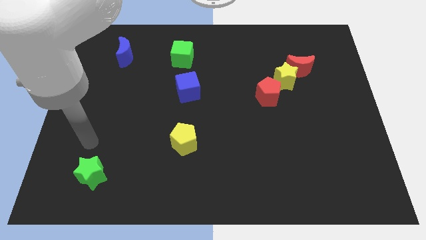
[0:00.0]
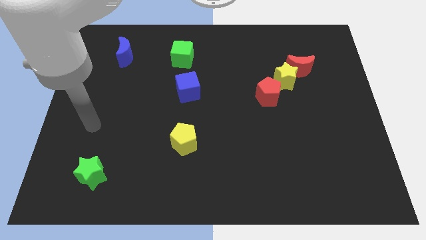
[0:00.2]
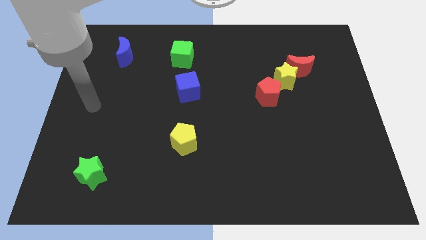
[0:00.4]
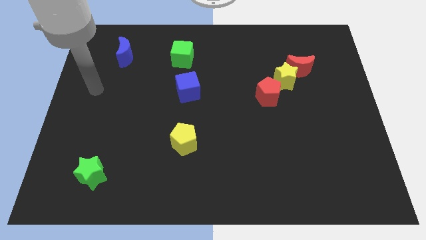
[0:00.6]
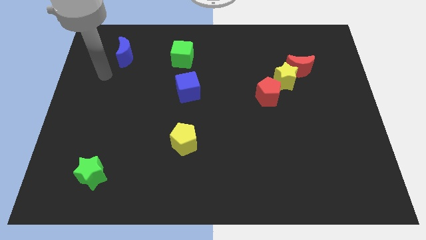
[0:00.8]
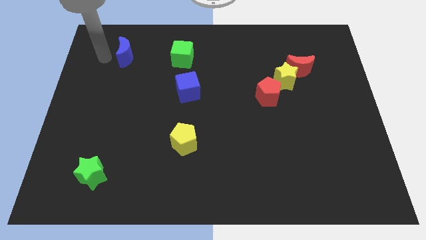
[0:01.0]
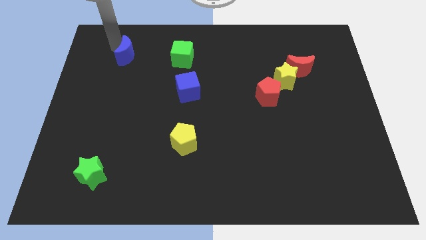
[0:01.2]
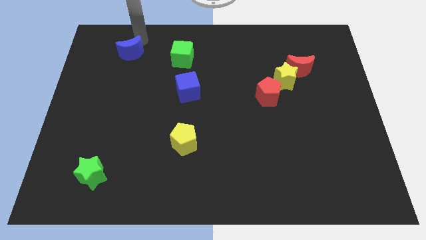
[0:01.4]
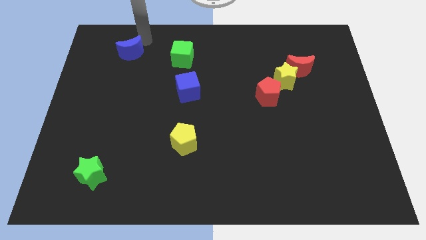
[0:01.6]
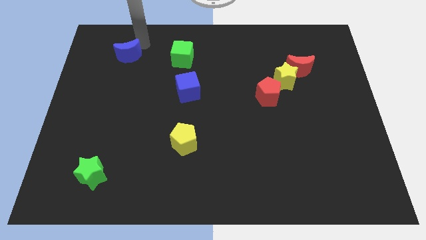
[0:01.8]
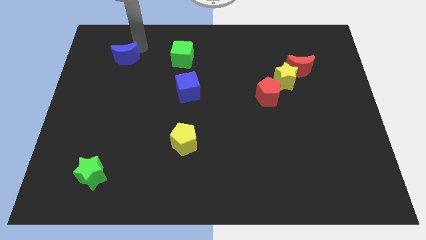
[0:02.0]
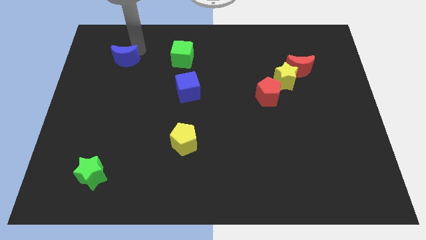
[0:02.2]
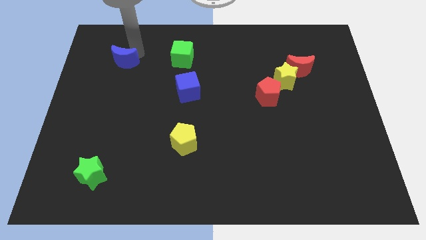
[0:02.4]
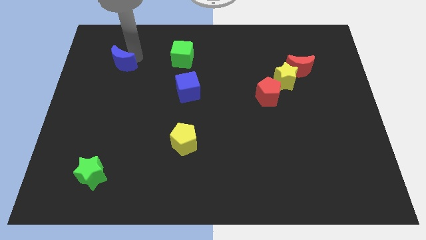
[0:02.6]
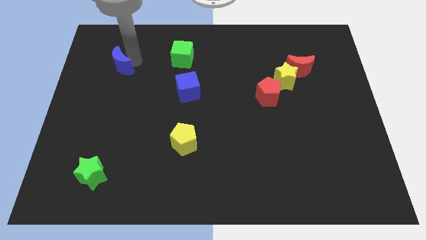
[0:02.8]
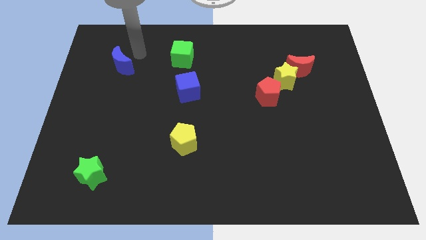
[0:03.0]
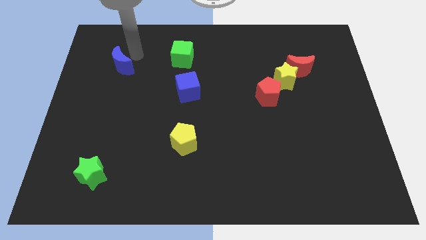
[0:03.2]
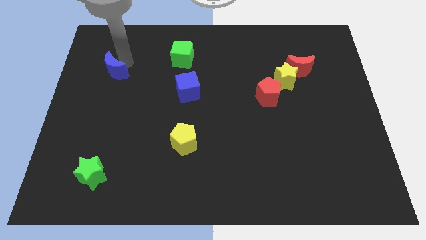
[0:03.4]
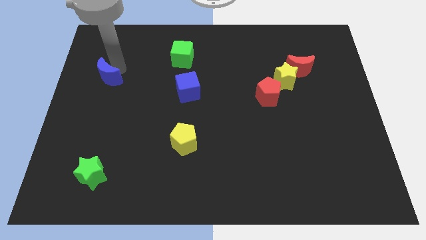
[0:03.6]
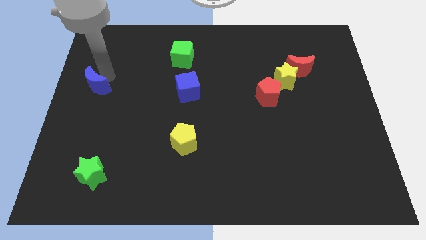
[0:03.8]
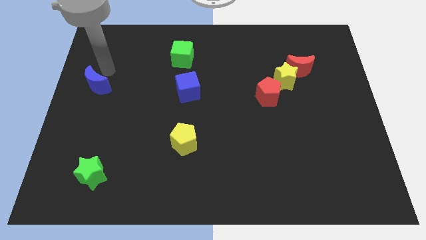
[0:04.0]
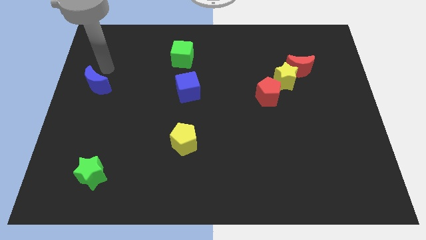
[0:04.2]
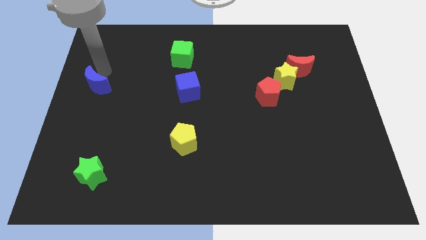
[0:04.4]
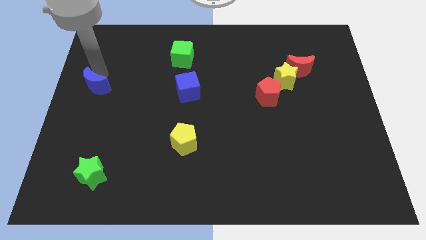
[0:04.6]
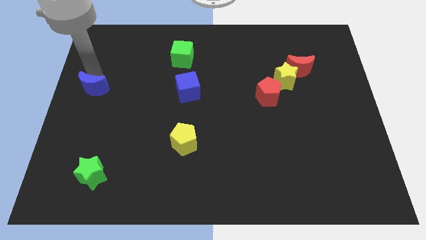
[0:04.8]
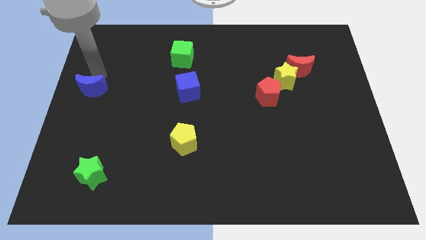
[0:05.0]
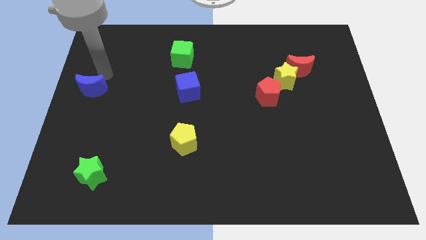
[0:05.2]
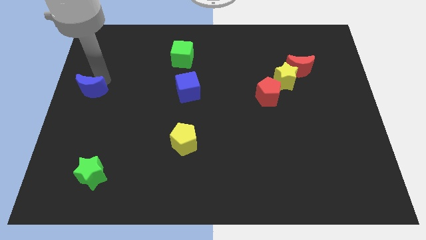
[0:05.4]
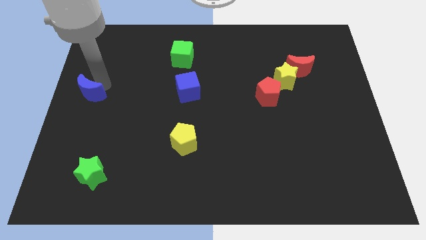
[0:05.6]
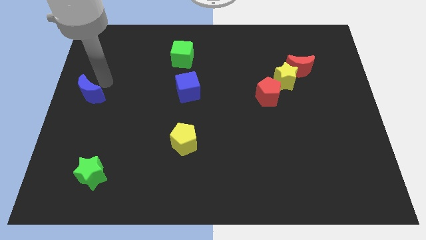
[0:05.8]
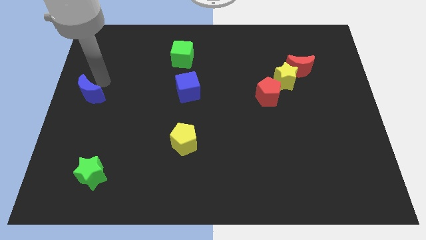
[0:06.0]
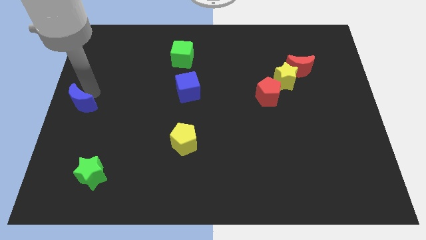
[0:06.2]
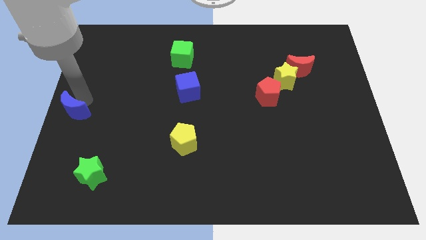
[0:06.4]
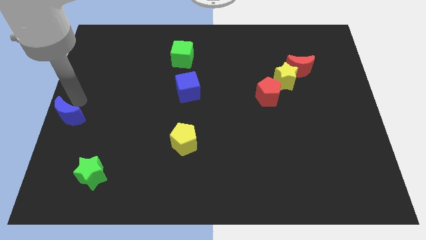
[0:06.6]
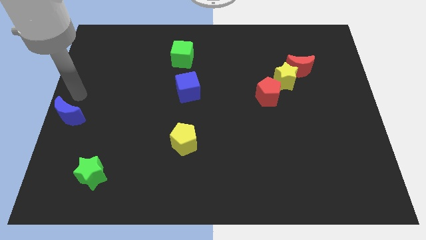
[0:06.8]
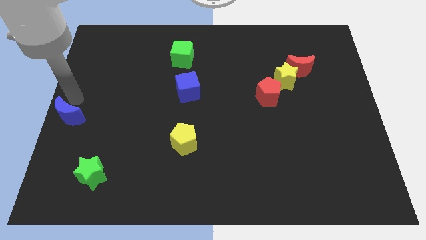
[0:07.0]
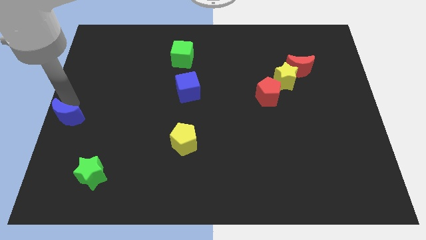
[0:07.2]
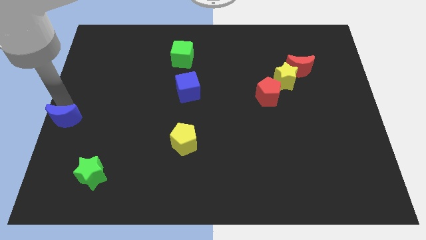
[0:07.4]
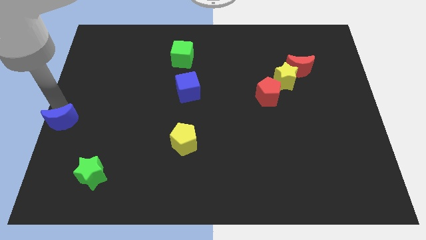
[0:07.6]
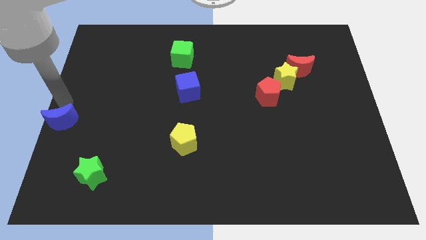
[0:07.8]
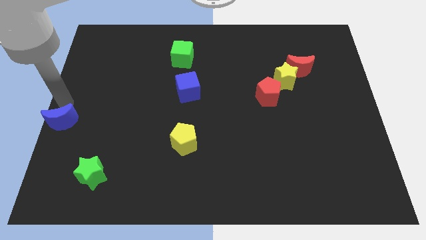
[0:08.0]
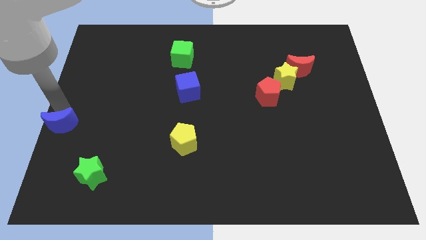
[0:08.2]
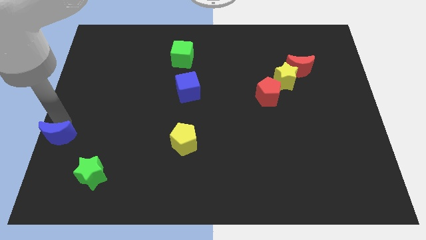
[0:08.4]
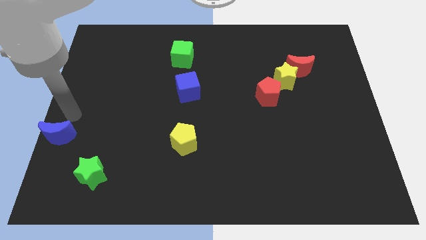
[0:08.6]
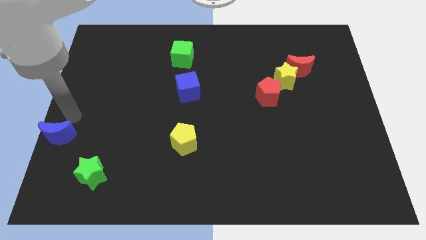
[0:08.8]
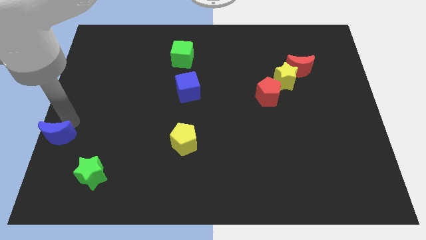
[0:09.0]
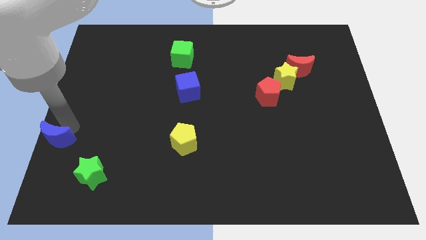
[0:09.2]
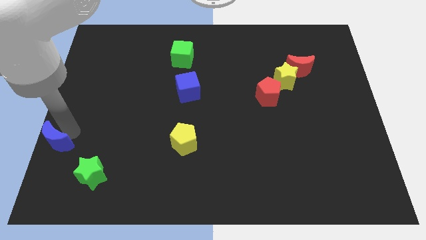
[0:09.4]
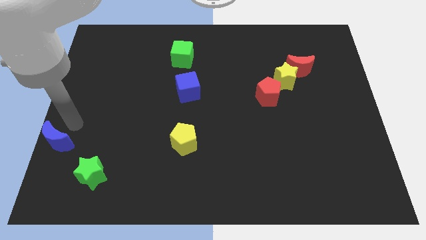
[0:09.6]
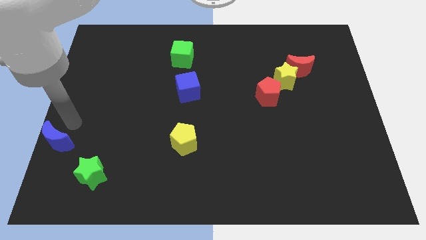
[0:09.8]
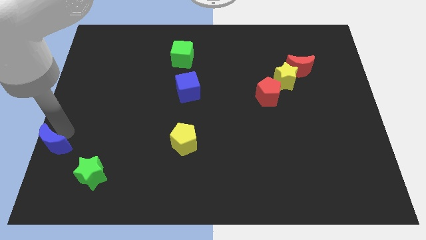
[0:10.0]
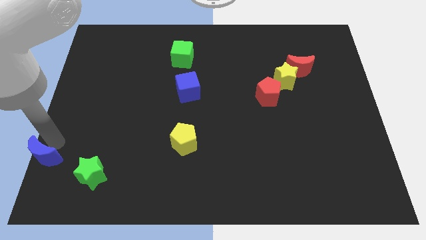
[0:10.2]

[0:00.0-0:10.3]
push the blue moon to the bottom left of the board

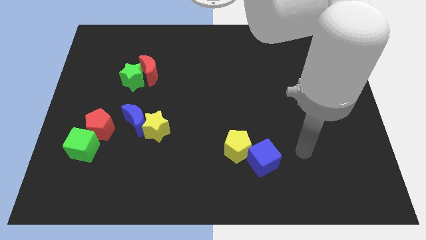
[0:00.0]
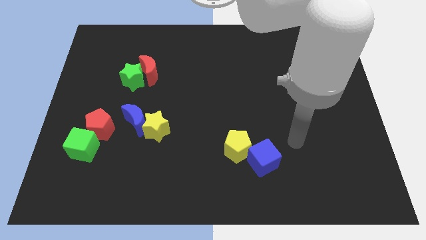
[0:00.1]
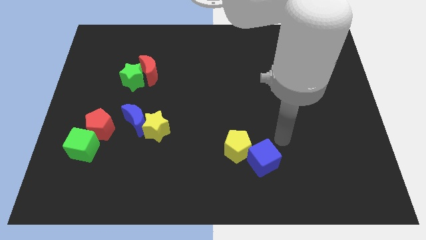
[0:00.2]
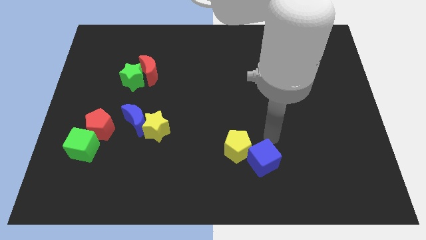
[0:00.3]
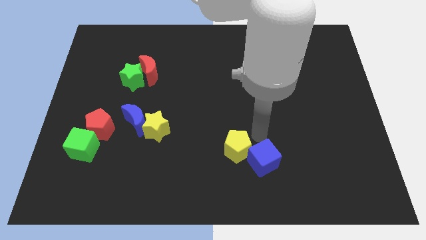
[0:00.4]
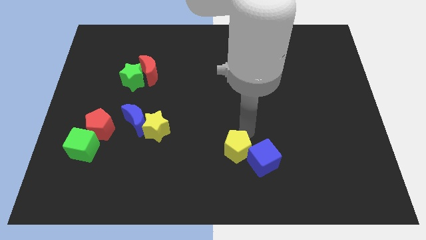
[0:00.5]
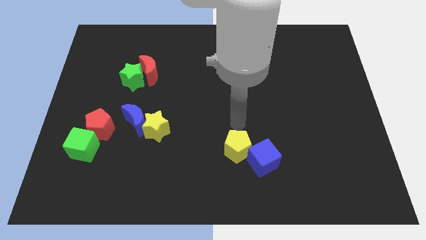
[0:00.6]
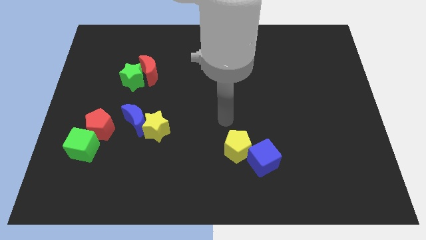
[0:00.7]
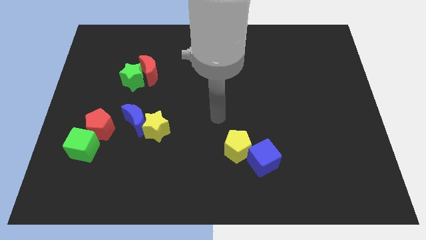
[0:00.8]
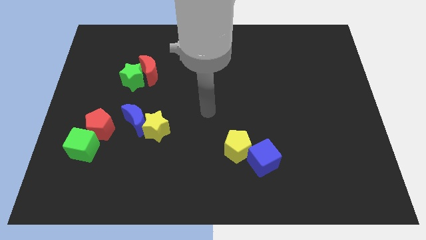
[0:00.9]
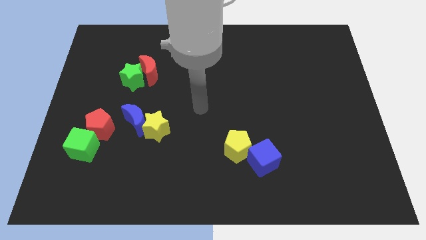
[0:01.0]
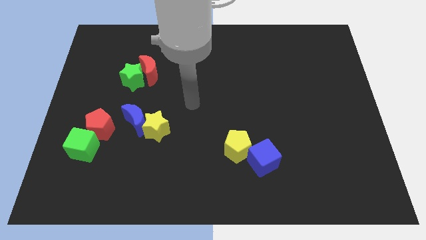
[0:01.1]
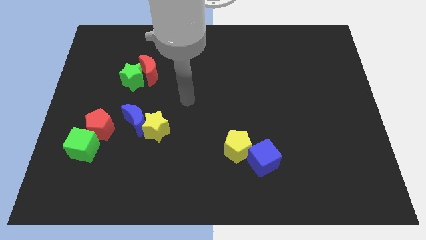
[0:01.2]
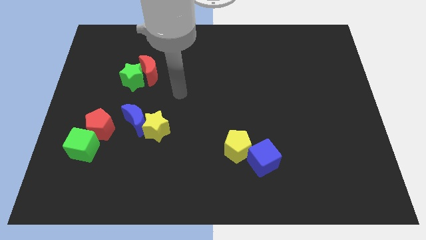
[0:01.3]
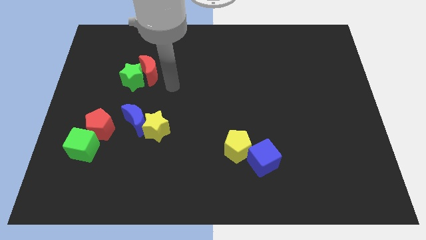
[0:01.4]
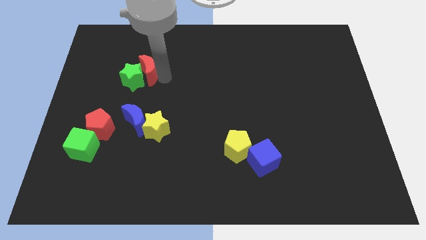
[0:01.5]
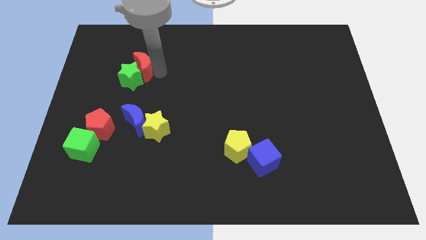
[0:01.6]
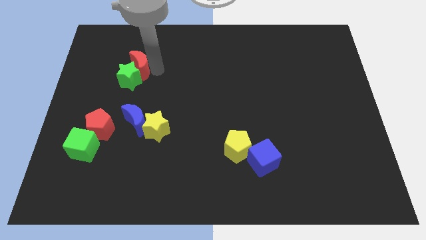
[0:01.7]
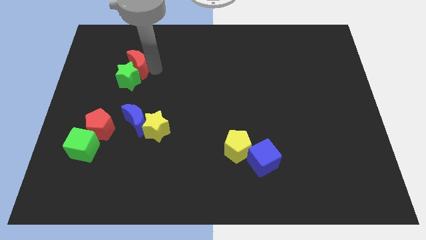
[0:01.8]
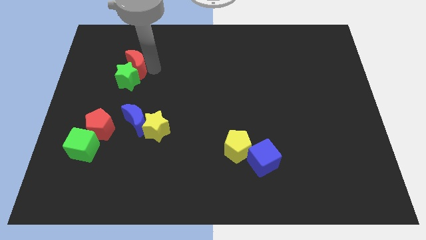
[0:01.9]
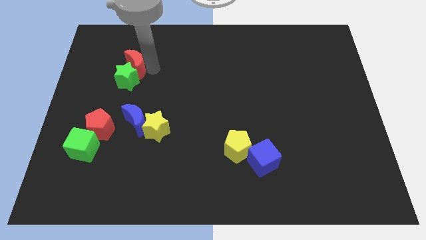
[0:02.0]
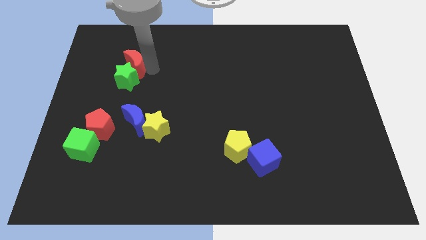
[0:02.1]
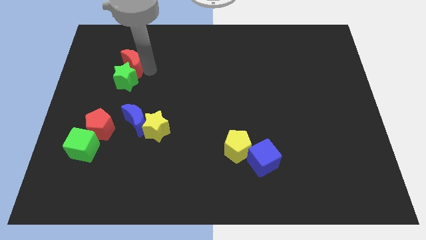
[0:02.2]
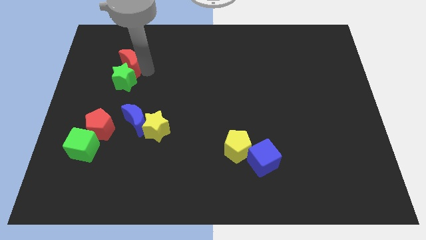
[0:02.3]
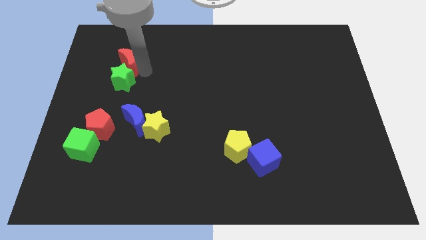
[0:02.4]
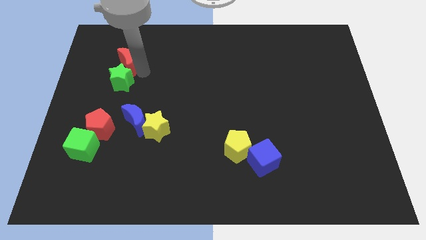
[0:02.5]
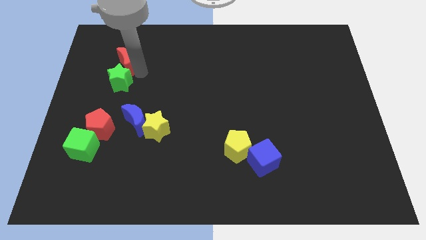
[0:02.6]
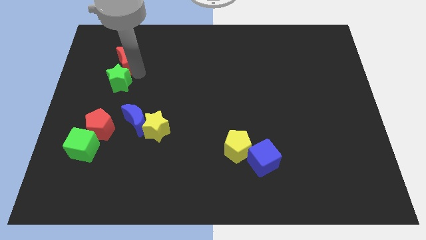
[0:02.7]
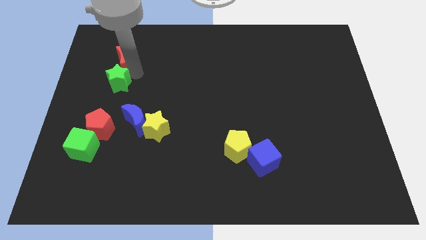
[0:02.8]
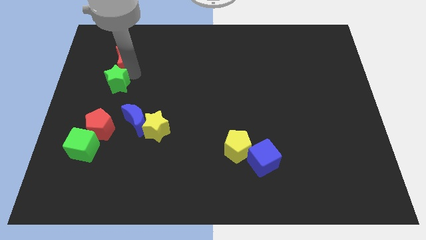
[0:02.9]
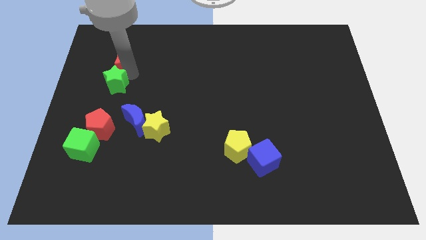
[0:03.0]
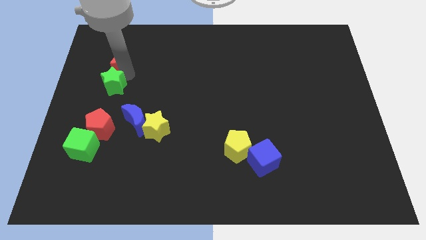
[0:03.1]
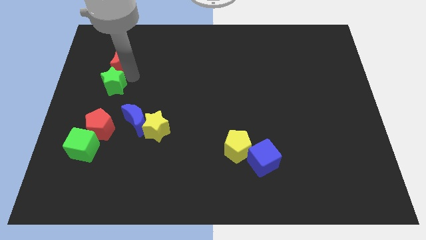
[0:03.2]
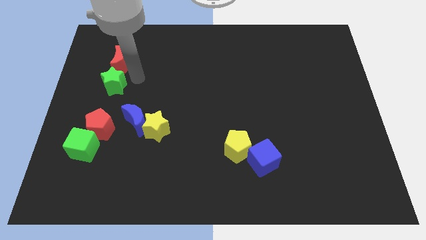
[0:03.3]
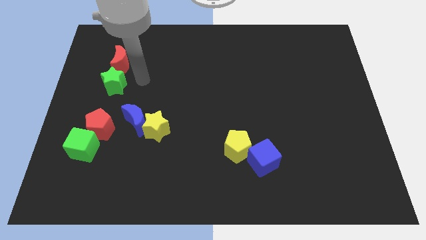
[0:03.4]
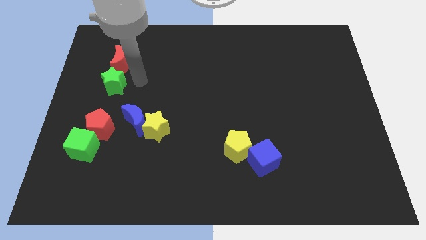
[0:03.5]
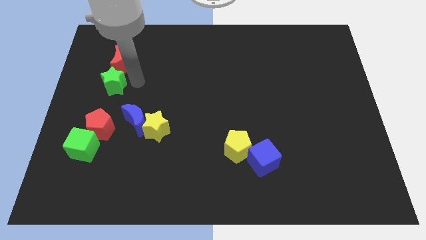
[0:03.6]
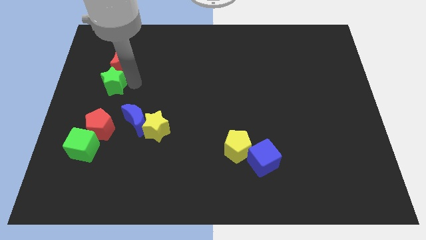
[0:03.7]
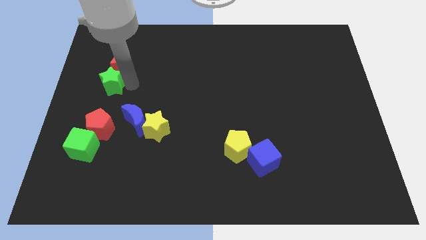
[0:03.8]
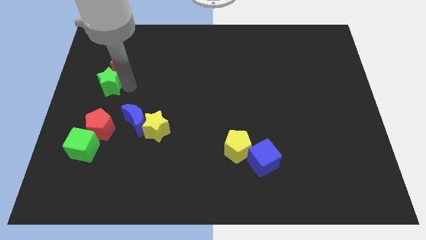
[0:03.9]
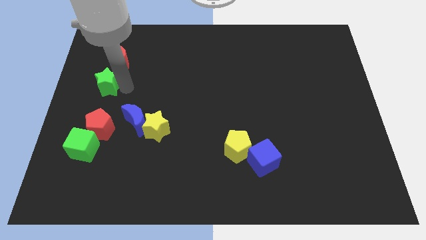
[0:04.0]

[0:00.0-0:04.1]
move the green star to the left side of the board
